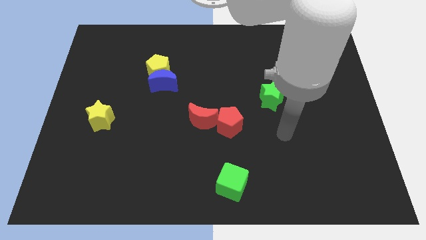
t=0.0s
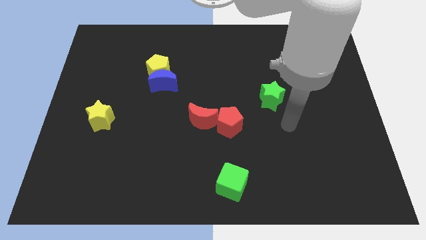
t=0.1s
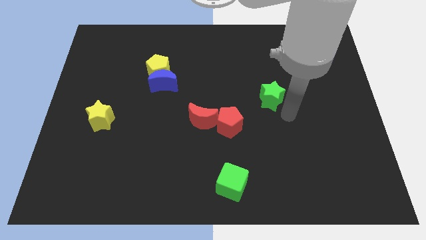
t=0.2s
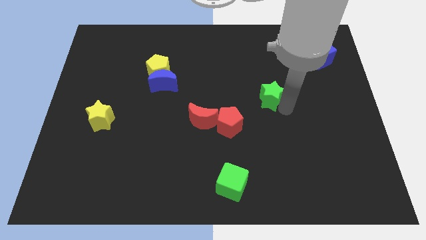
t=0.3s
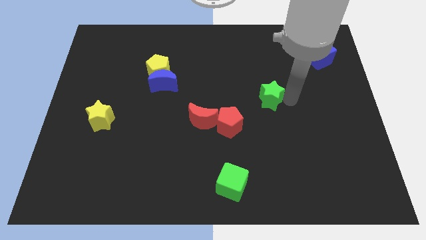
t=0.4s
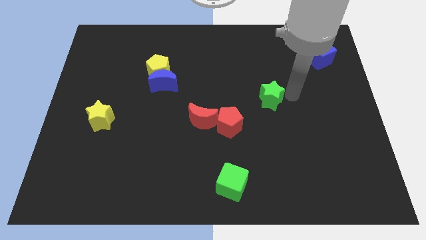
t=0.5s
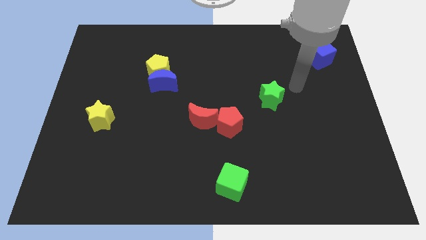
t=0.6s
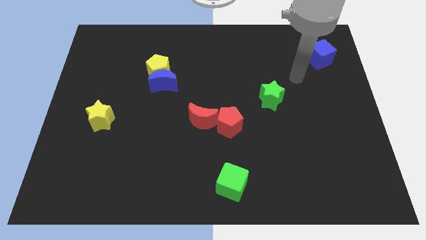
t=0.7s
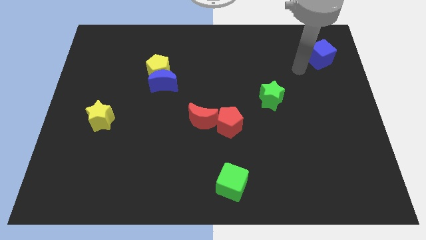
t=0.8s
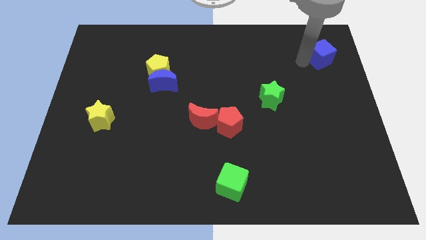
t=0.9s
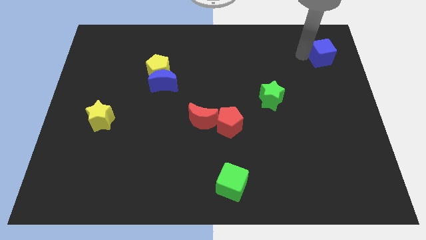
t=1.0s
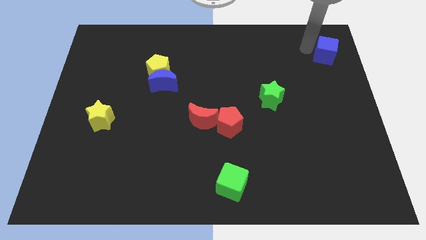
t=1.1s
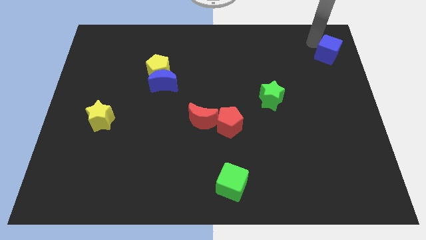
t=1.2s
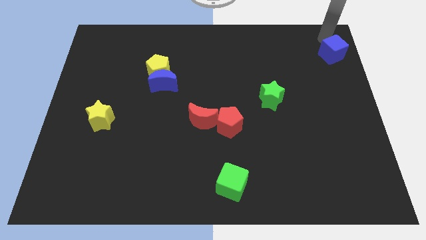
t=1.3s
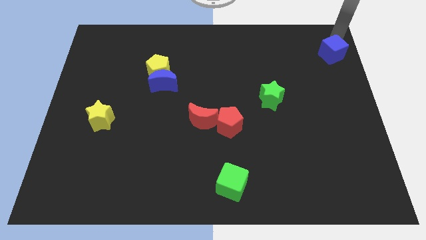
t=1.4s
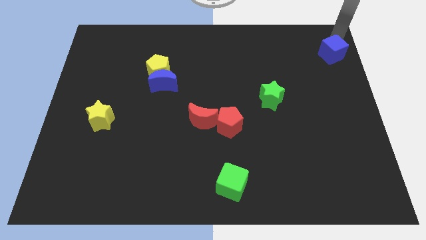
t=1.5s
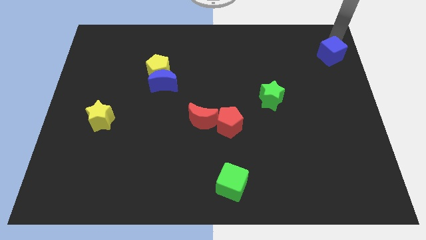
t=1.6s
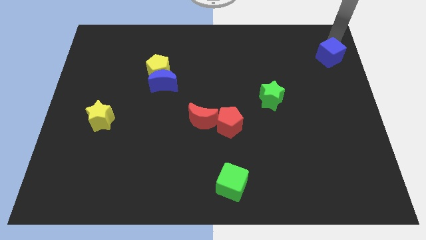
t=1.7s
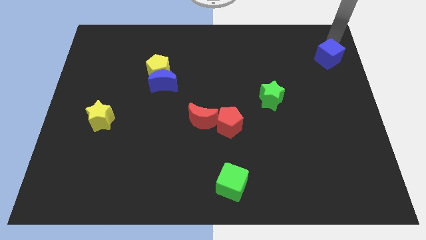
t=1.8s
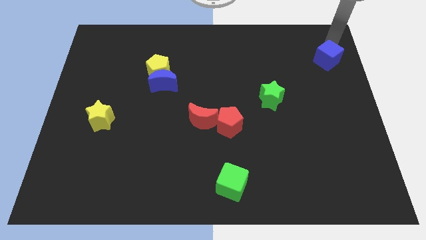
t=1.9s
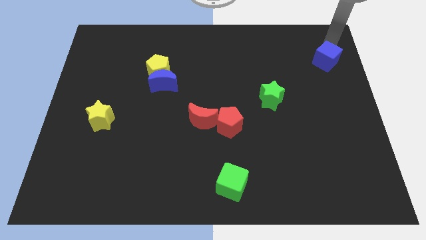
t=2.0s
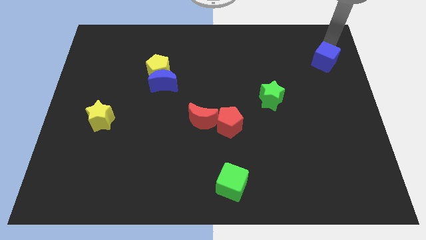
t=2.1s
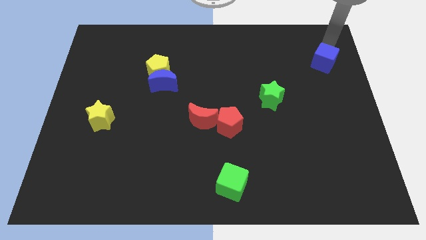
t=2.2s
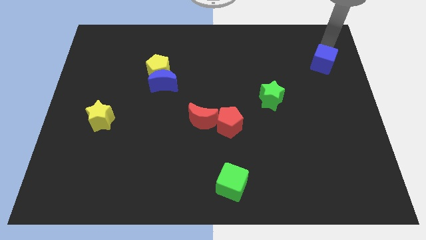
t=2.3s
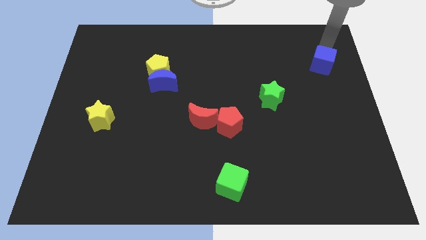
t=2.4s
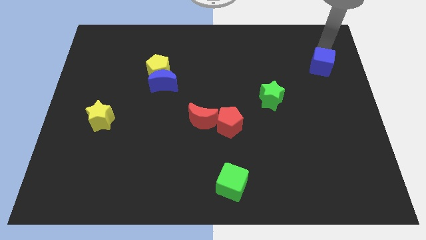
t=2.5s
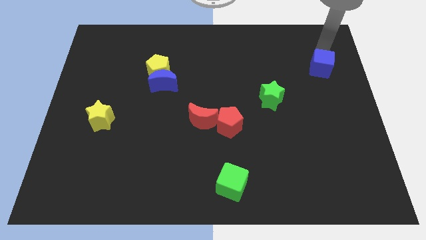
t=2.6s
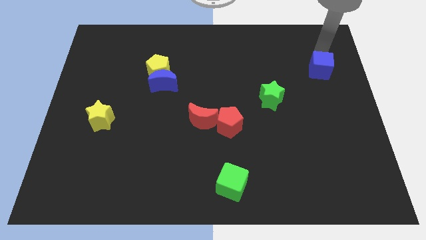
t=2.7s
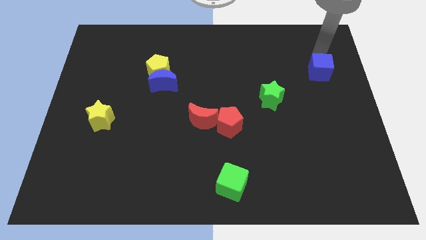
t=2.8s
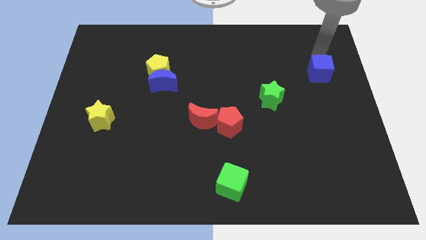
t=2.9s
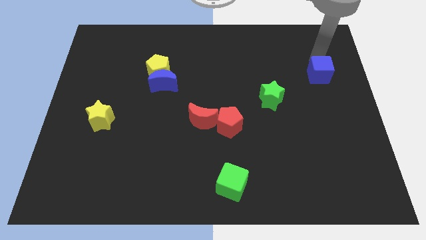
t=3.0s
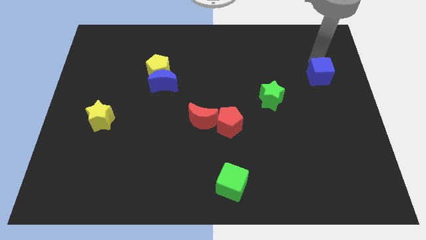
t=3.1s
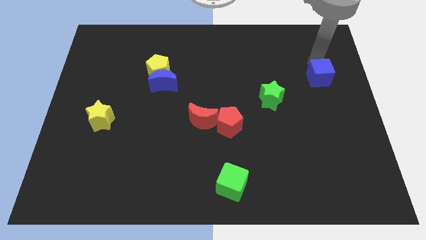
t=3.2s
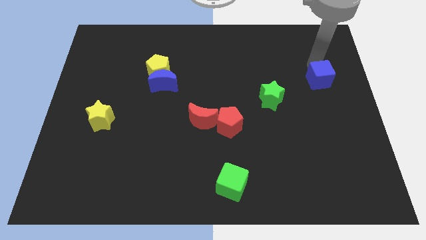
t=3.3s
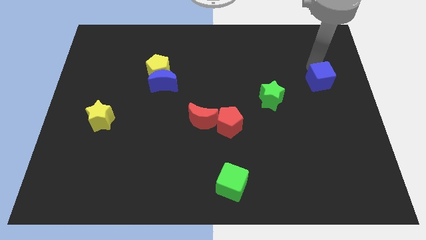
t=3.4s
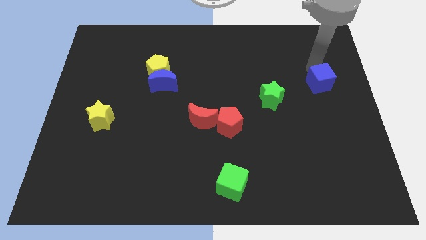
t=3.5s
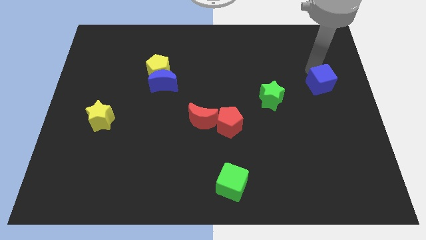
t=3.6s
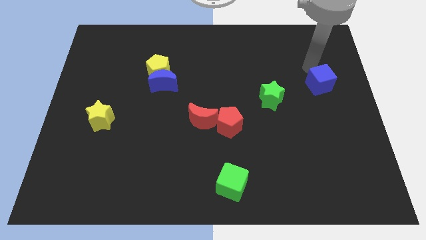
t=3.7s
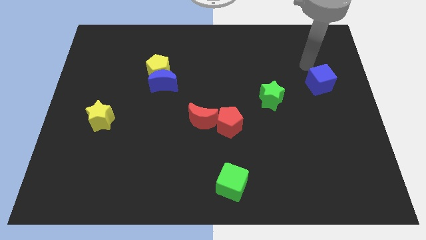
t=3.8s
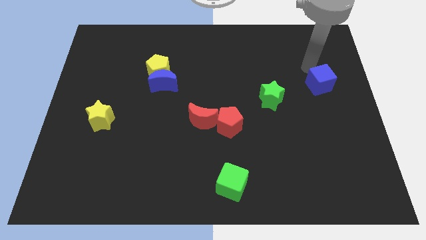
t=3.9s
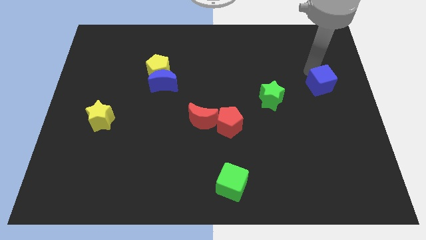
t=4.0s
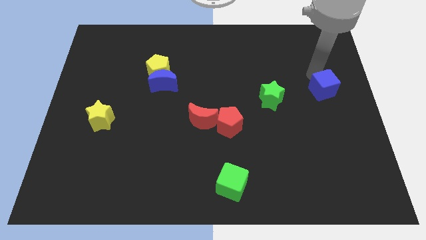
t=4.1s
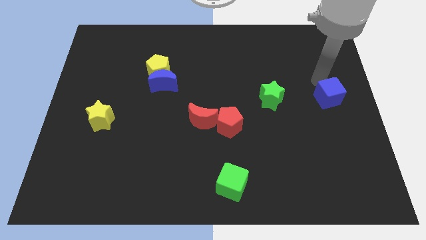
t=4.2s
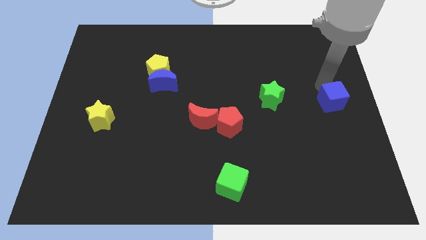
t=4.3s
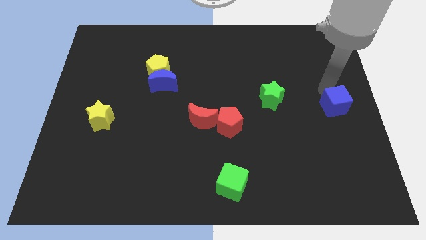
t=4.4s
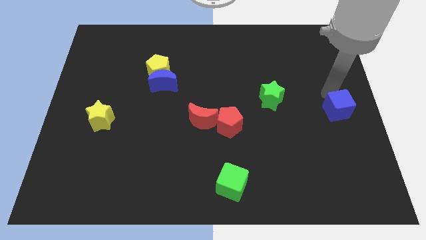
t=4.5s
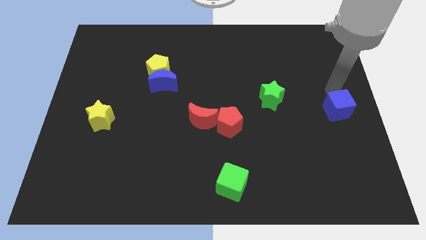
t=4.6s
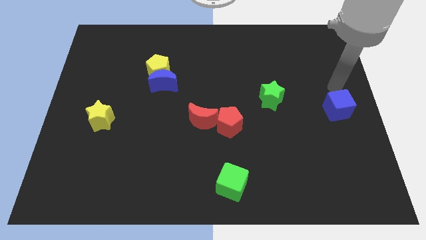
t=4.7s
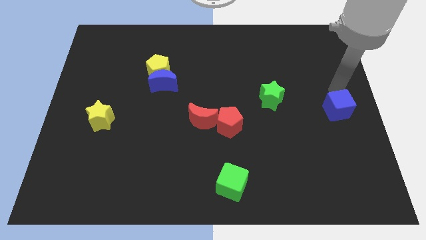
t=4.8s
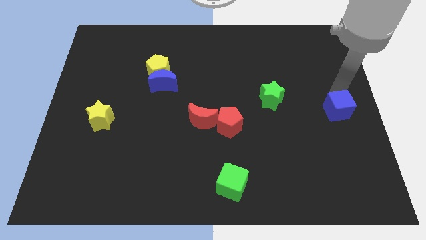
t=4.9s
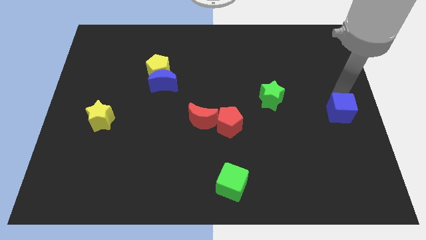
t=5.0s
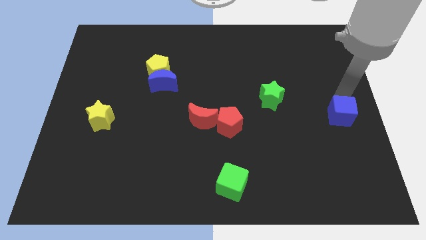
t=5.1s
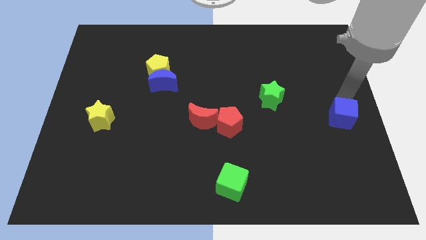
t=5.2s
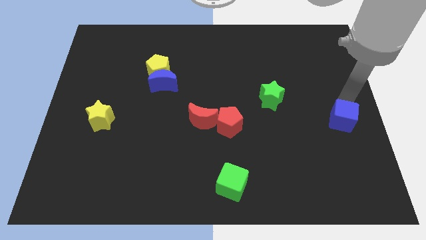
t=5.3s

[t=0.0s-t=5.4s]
push the blue cube down

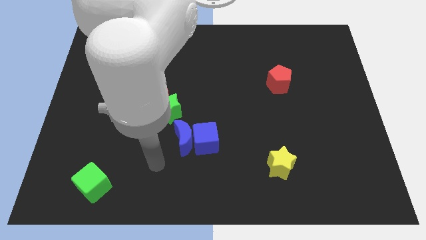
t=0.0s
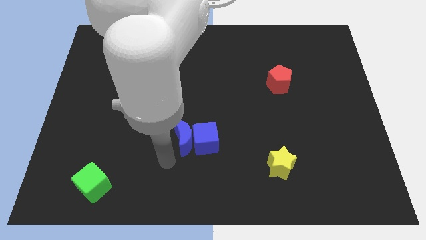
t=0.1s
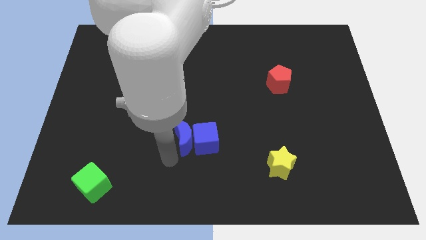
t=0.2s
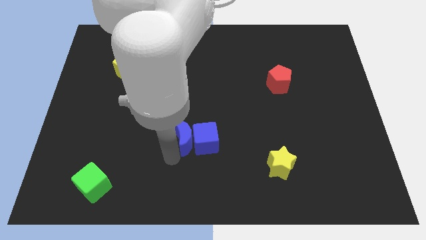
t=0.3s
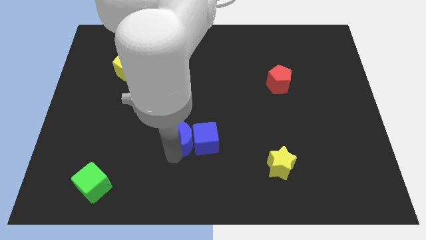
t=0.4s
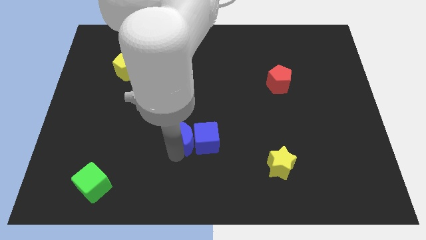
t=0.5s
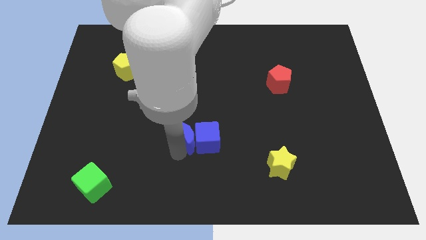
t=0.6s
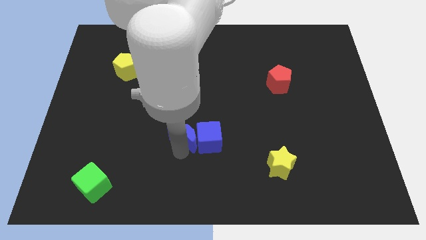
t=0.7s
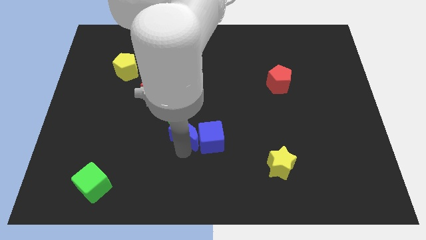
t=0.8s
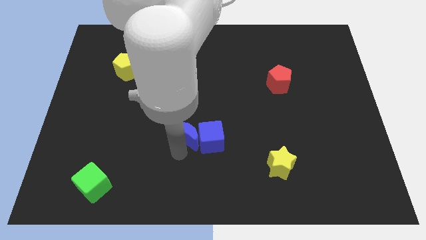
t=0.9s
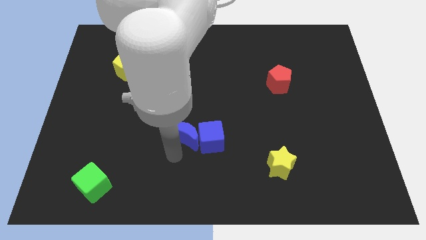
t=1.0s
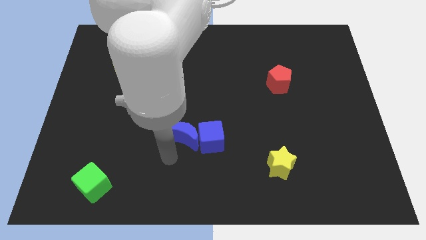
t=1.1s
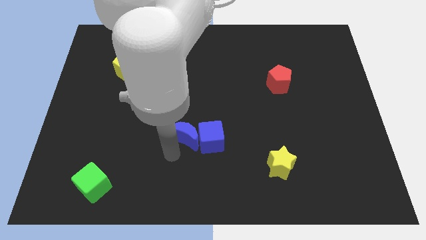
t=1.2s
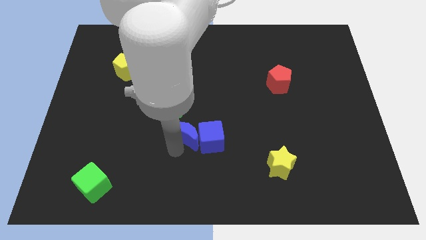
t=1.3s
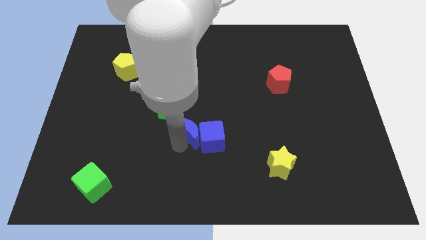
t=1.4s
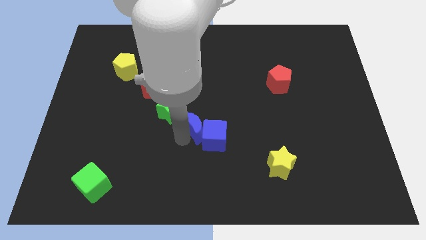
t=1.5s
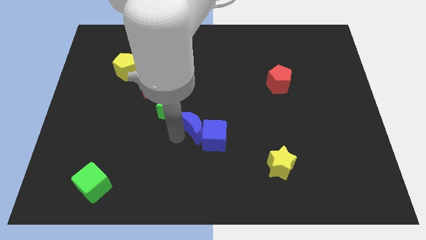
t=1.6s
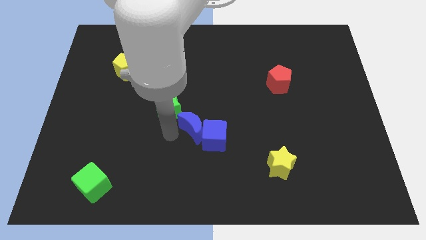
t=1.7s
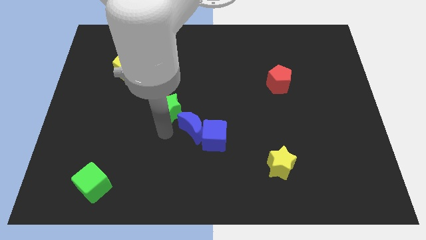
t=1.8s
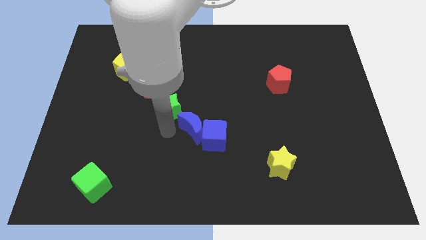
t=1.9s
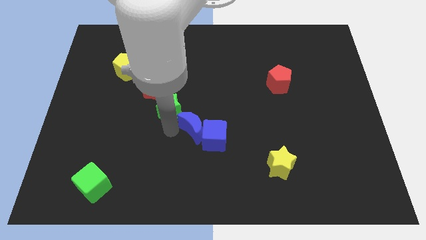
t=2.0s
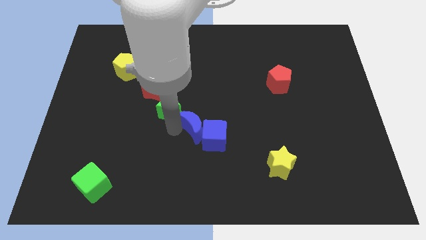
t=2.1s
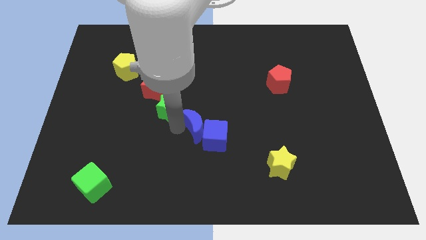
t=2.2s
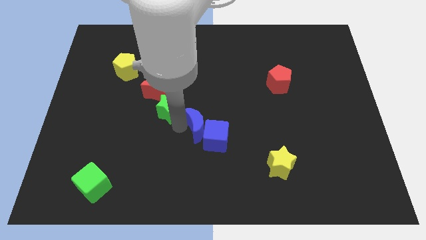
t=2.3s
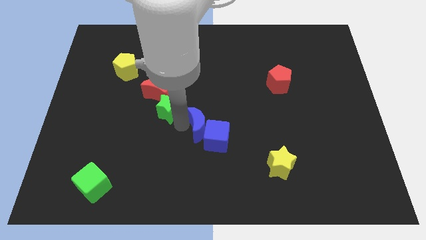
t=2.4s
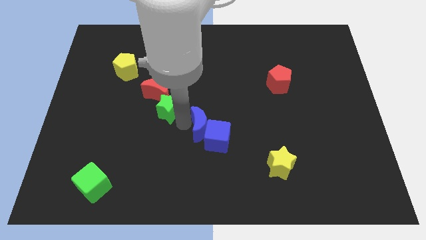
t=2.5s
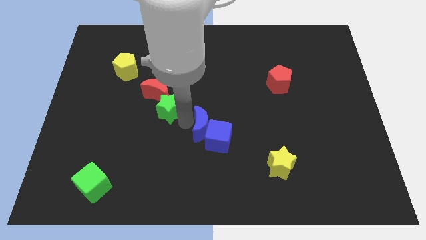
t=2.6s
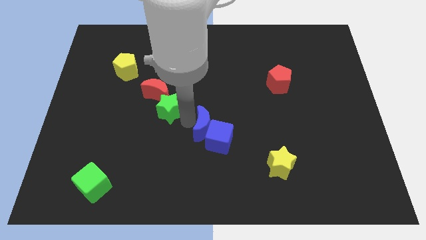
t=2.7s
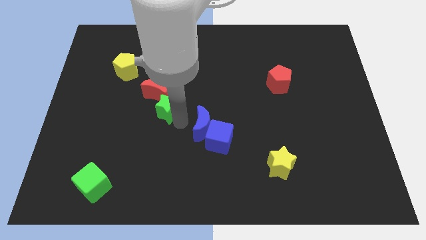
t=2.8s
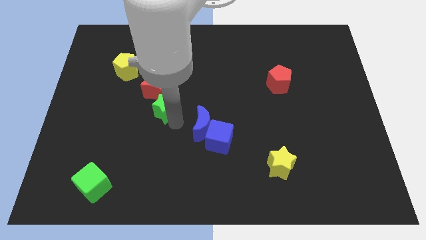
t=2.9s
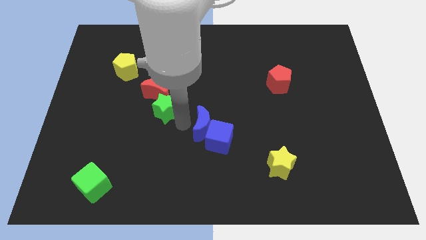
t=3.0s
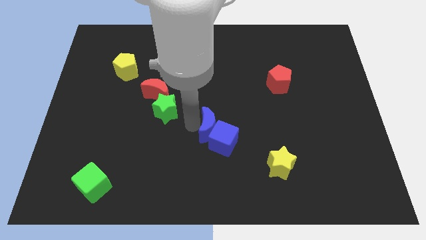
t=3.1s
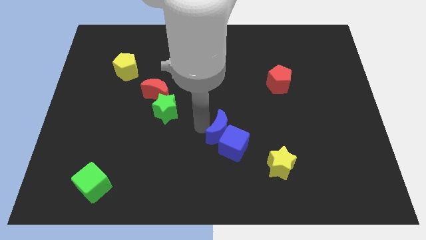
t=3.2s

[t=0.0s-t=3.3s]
slide the blue moon a little right
